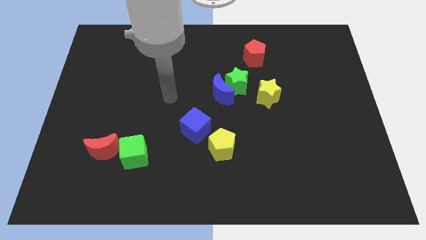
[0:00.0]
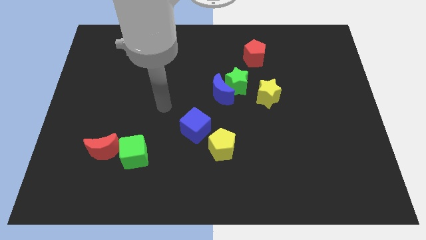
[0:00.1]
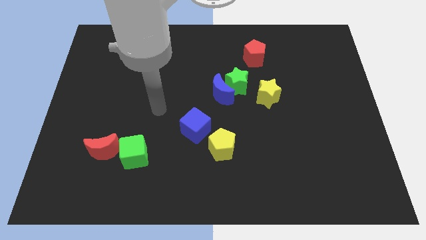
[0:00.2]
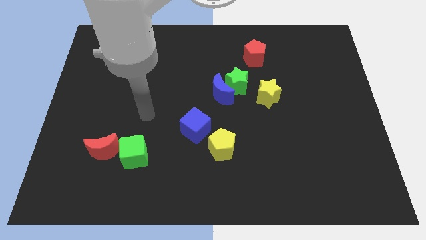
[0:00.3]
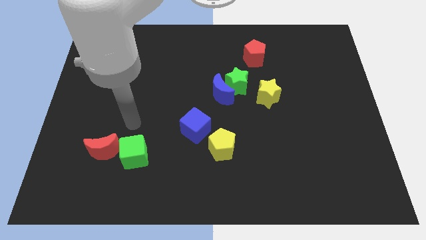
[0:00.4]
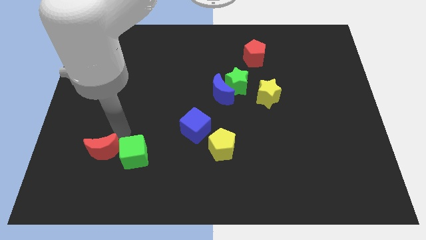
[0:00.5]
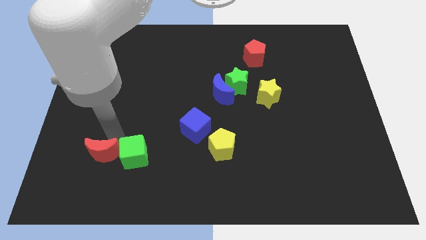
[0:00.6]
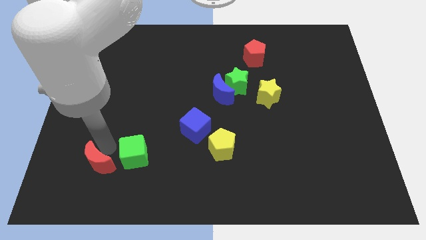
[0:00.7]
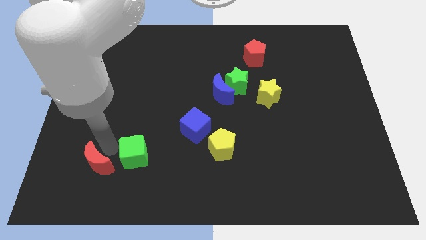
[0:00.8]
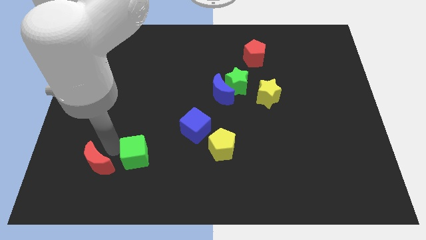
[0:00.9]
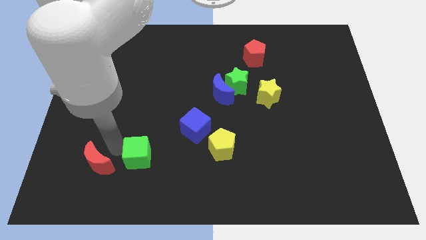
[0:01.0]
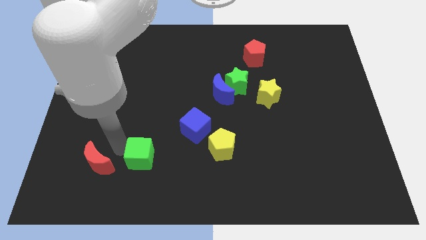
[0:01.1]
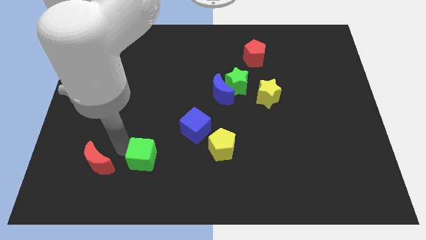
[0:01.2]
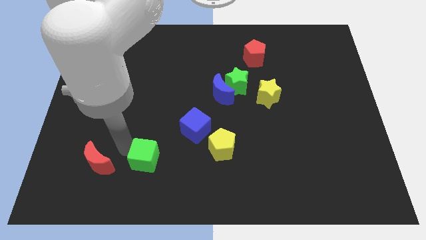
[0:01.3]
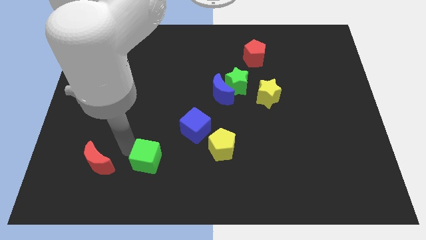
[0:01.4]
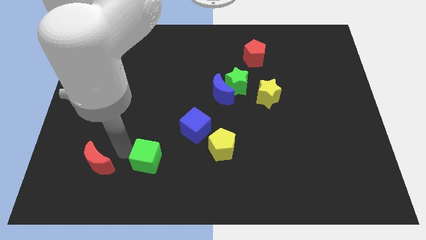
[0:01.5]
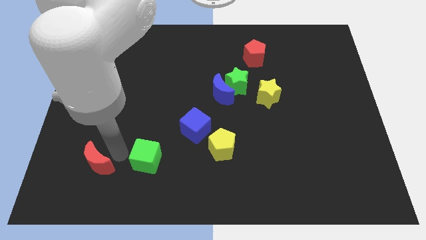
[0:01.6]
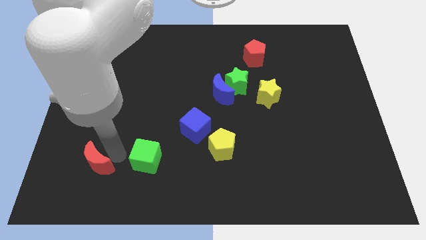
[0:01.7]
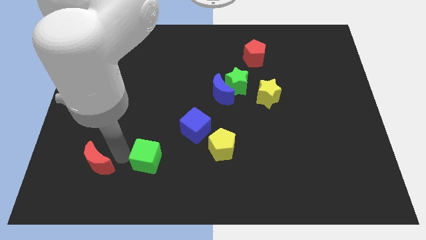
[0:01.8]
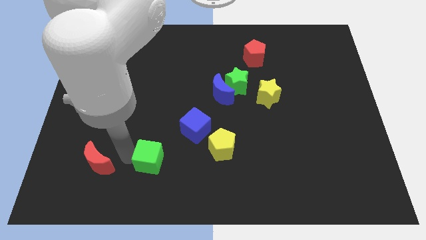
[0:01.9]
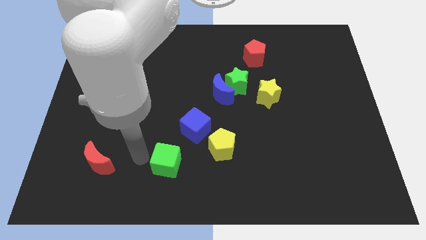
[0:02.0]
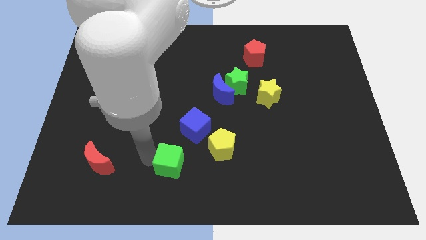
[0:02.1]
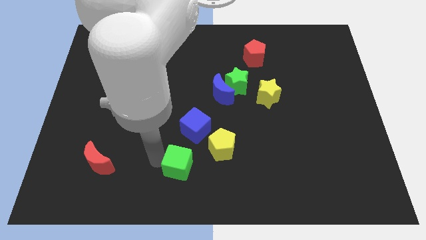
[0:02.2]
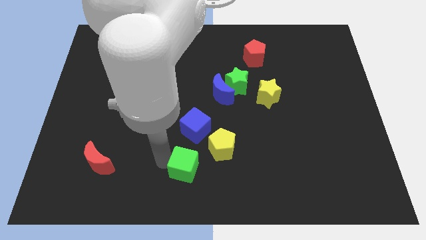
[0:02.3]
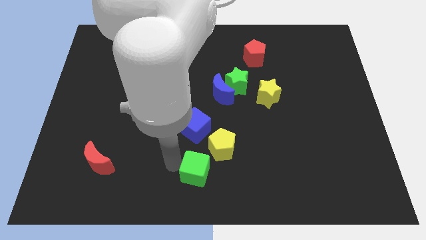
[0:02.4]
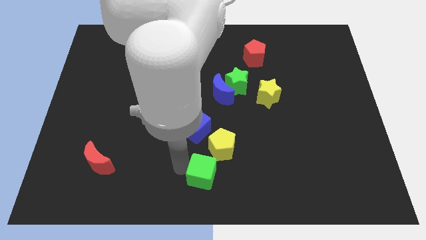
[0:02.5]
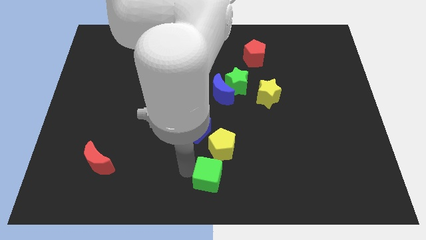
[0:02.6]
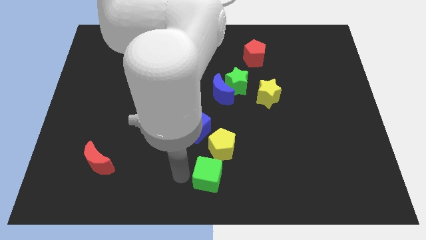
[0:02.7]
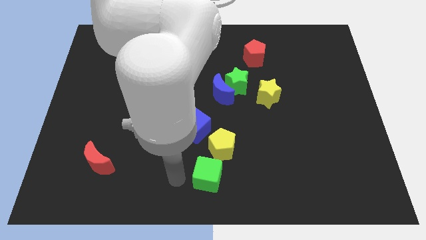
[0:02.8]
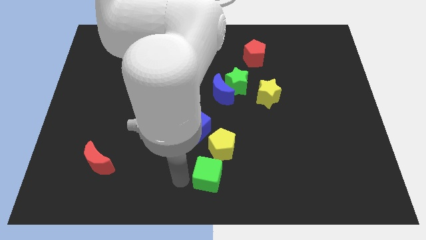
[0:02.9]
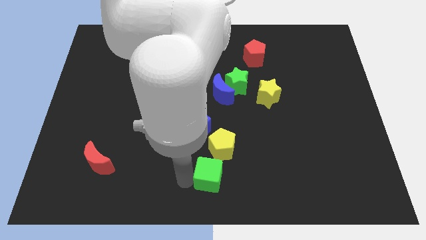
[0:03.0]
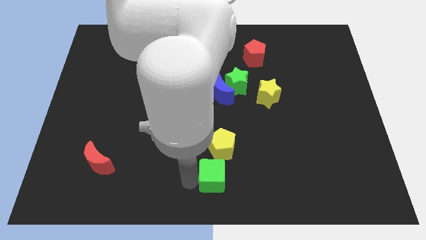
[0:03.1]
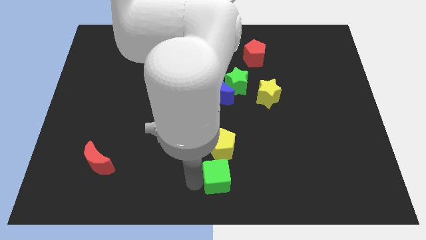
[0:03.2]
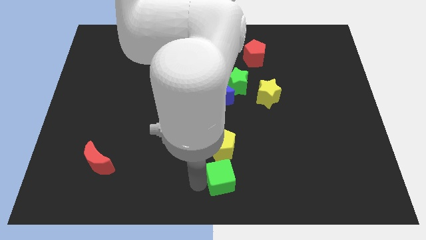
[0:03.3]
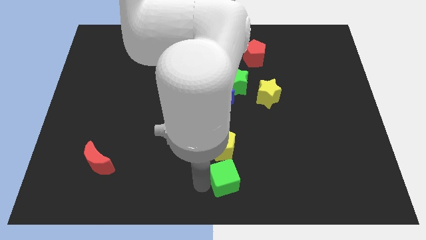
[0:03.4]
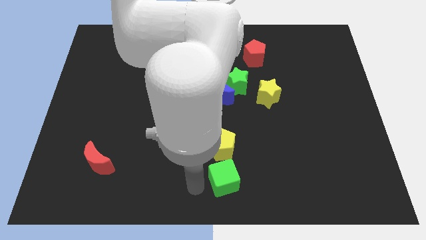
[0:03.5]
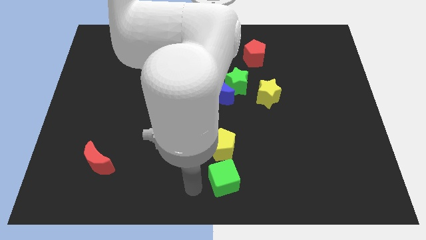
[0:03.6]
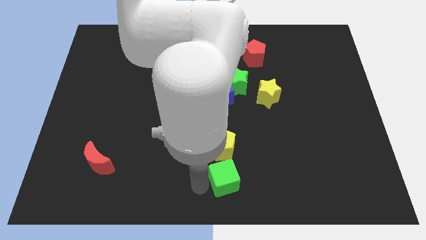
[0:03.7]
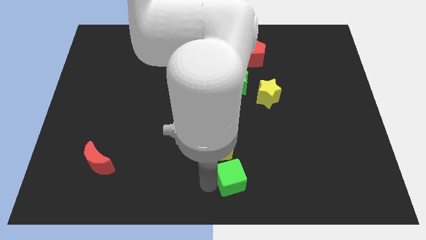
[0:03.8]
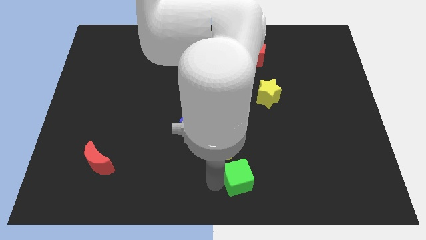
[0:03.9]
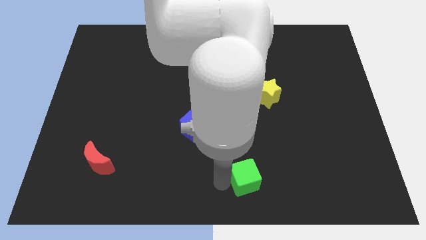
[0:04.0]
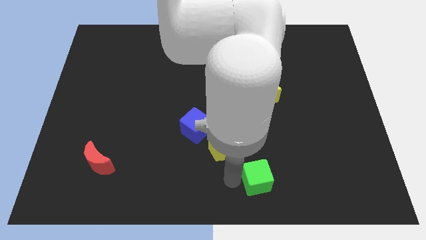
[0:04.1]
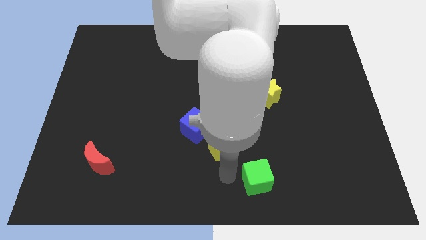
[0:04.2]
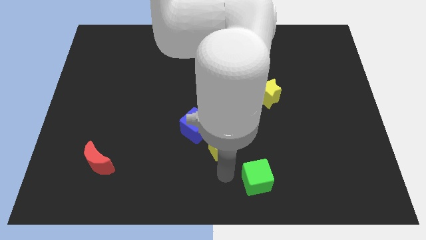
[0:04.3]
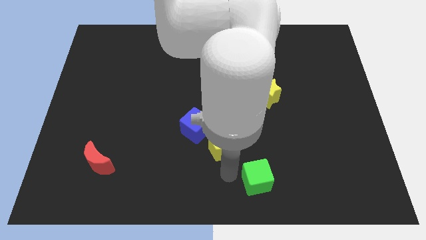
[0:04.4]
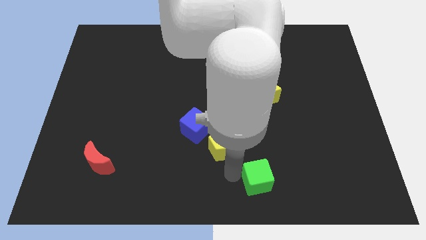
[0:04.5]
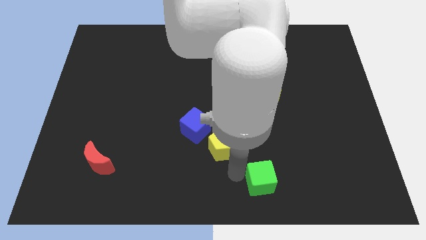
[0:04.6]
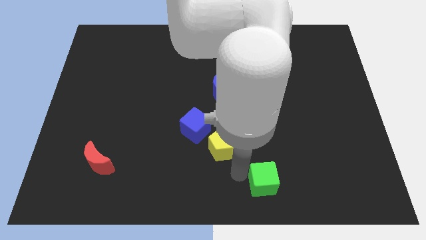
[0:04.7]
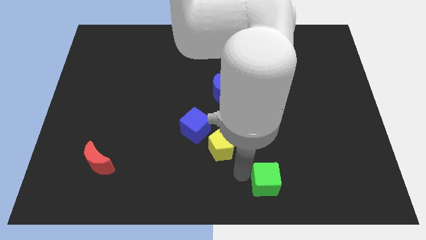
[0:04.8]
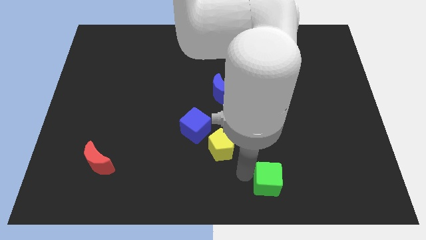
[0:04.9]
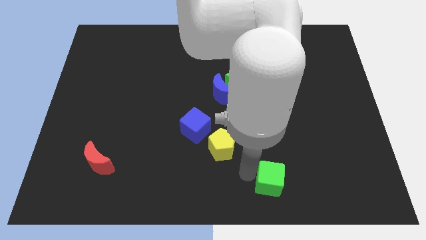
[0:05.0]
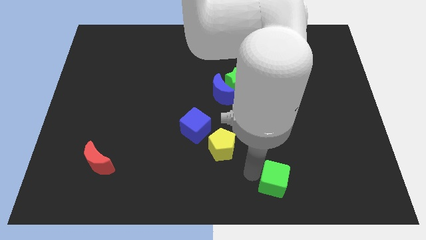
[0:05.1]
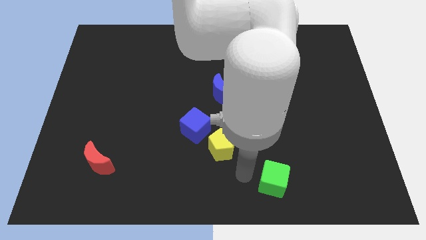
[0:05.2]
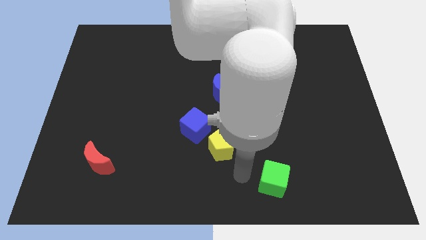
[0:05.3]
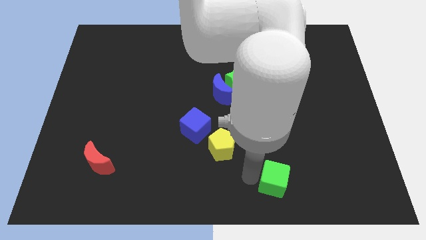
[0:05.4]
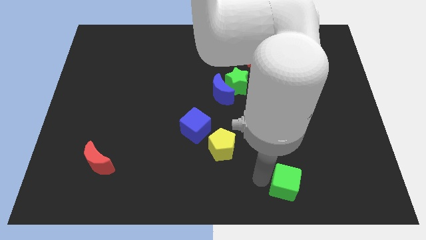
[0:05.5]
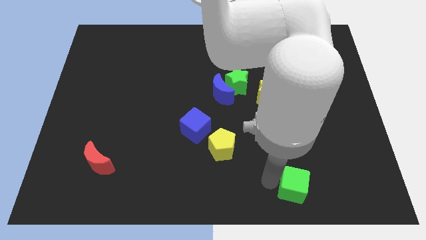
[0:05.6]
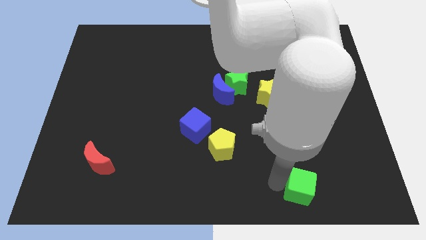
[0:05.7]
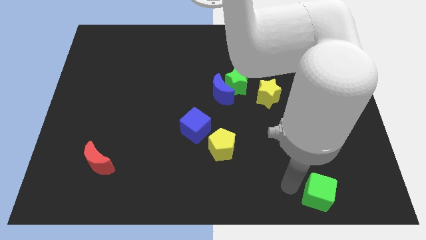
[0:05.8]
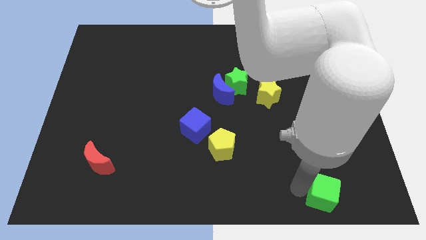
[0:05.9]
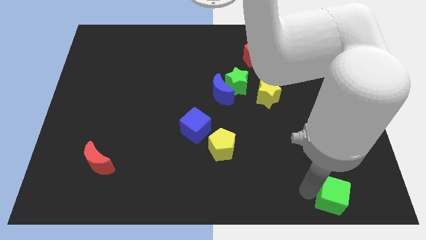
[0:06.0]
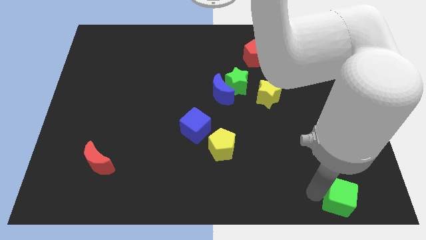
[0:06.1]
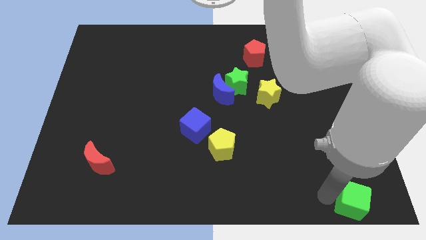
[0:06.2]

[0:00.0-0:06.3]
move the green cube to the bottom right corner
